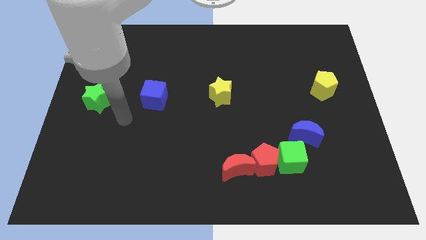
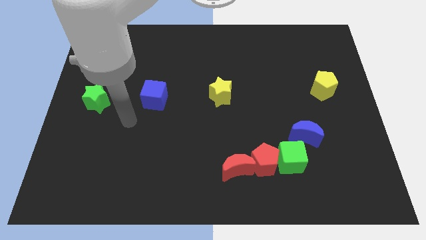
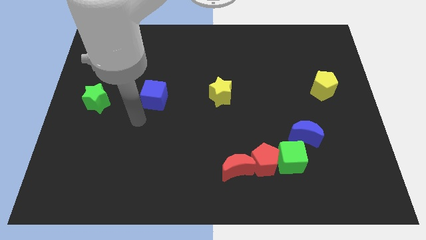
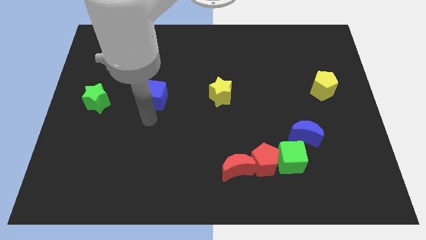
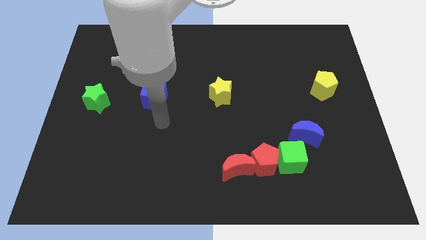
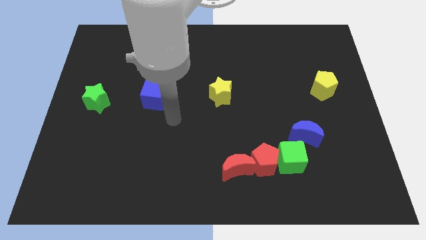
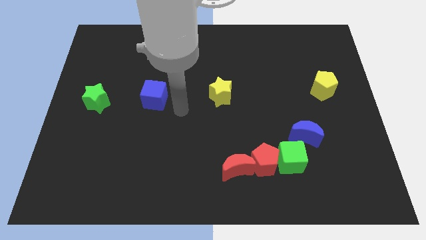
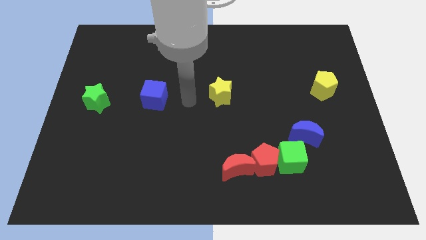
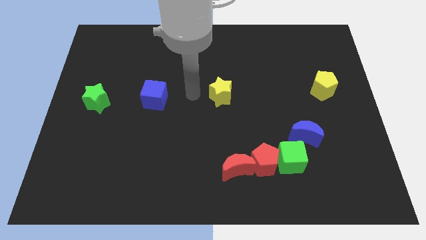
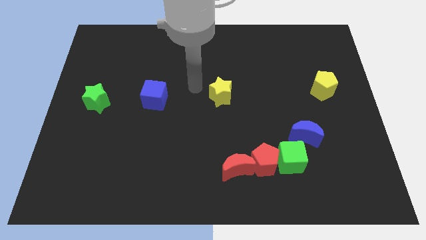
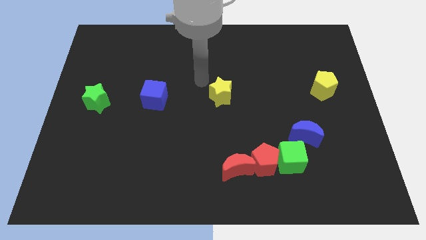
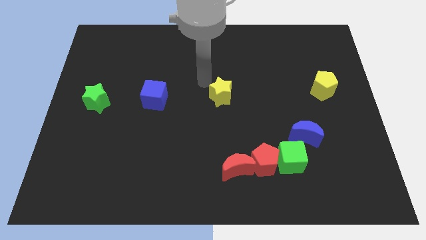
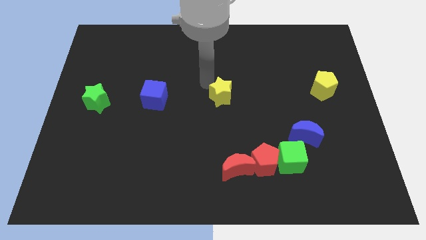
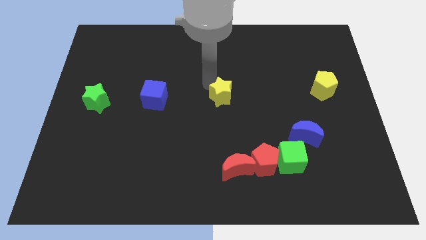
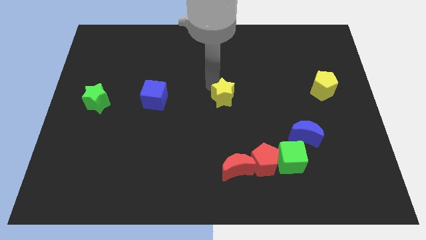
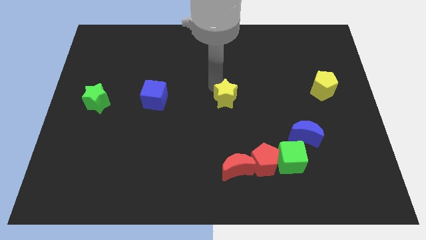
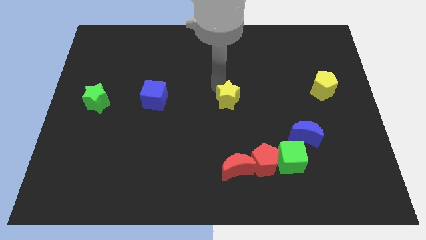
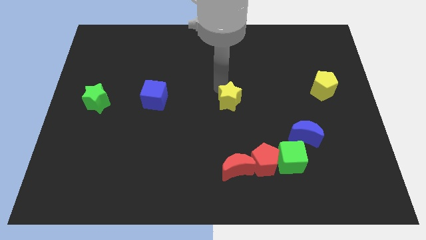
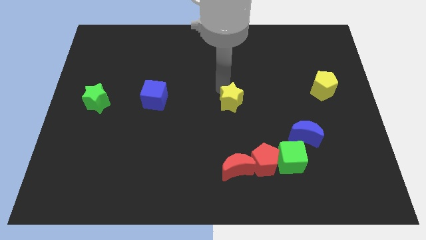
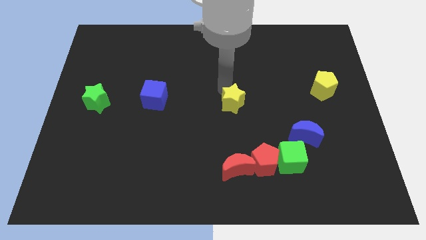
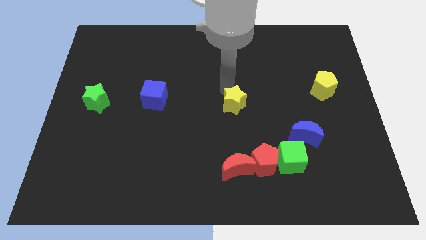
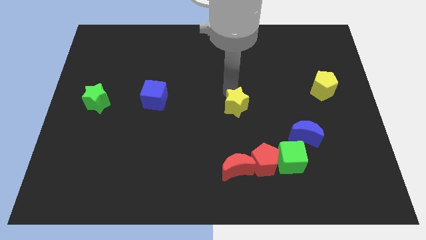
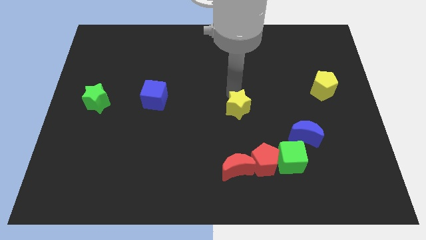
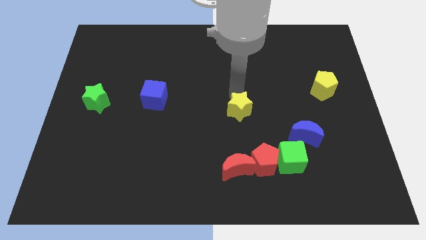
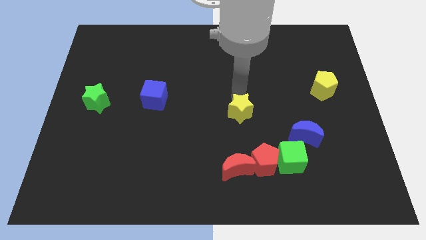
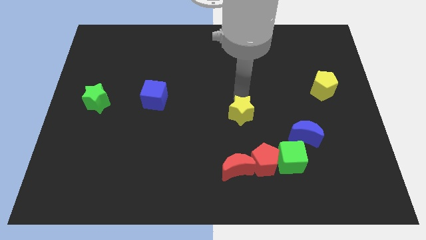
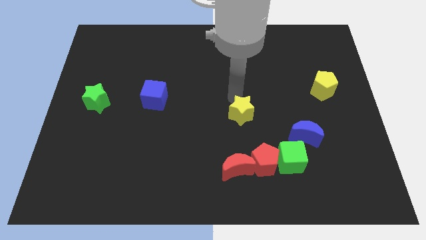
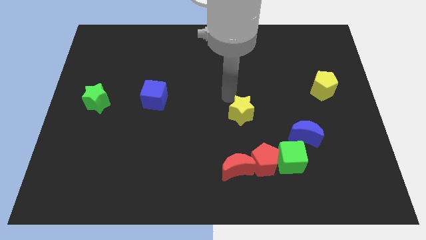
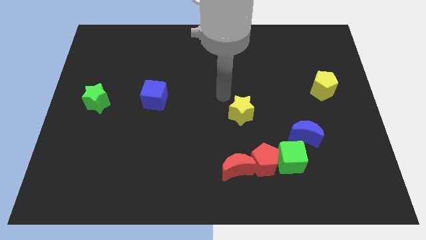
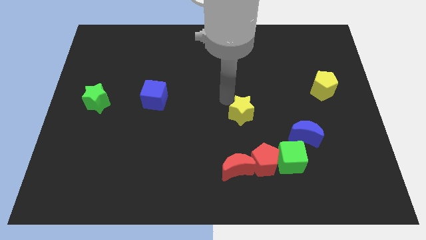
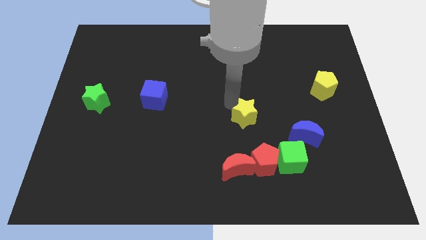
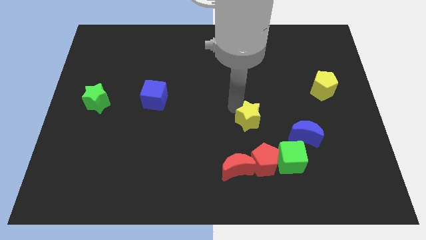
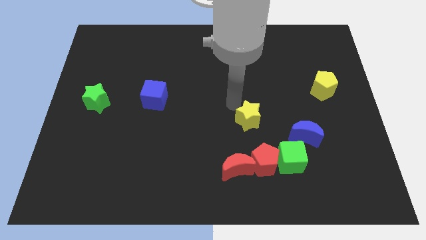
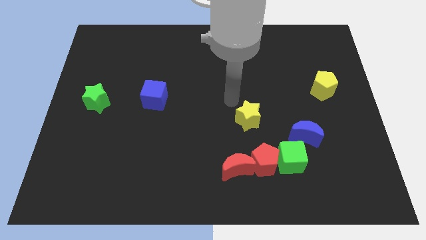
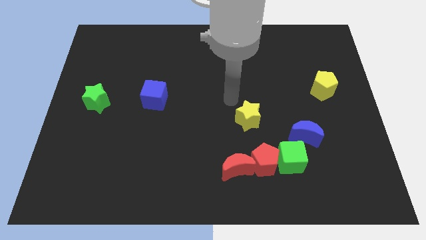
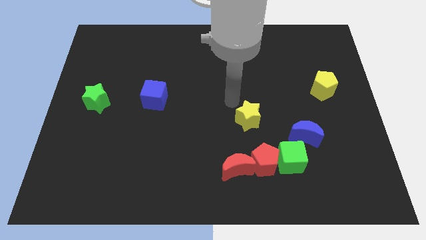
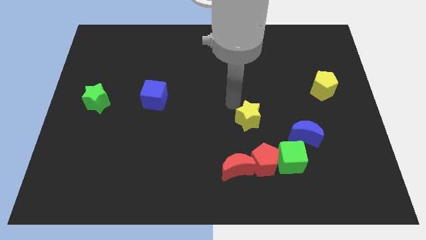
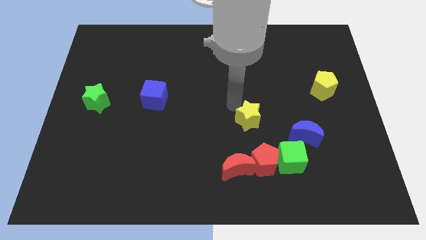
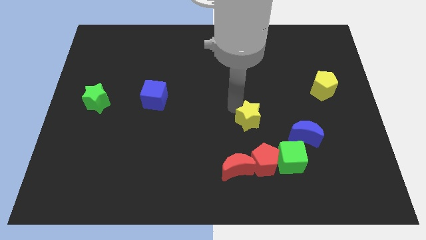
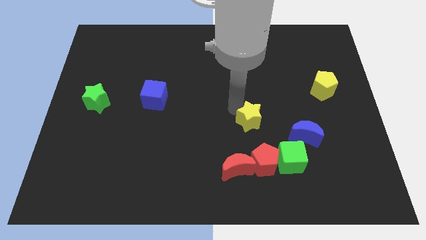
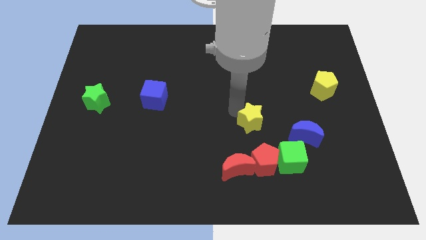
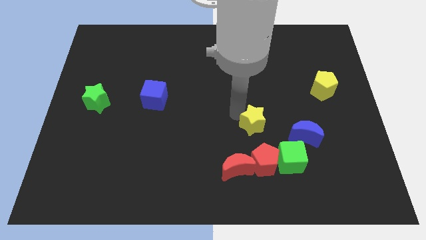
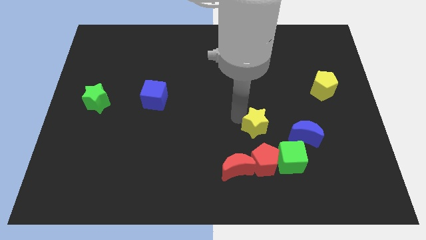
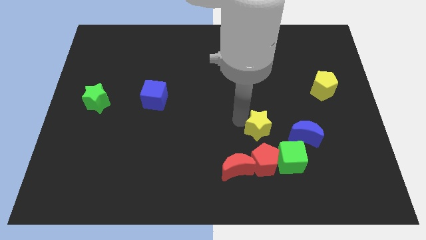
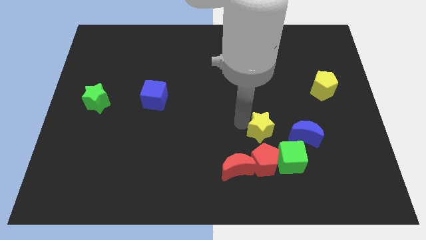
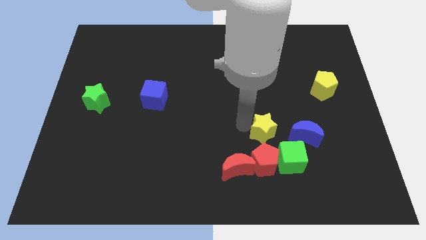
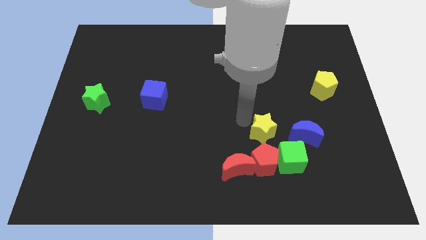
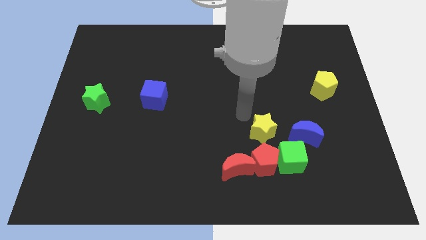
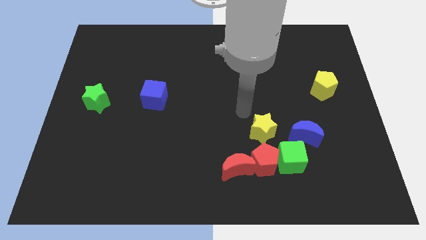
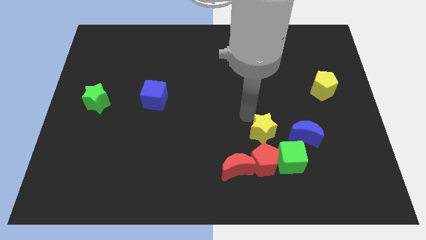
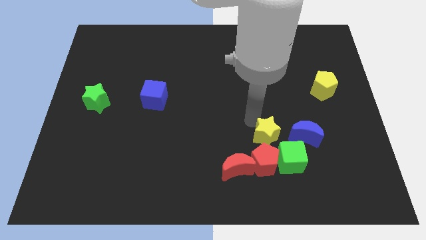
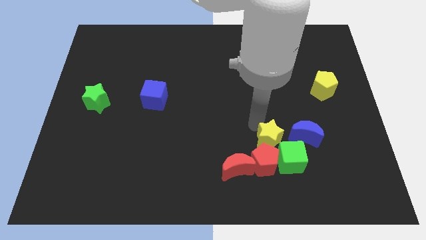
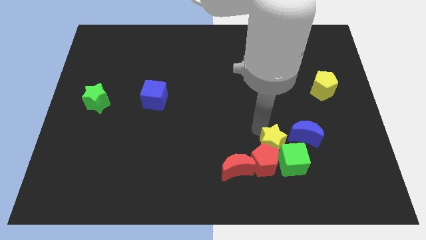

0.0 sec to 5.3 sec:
put the yellow star towards the green cube

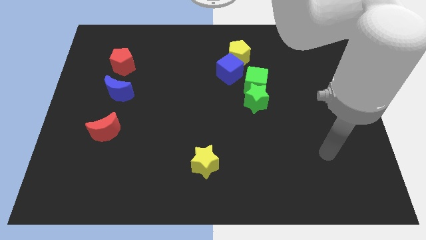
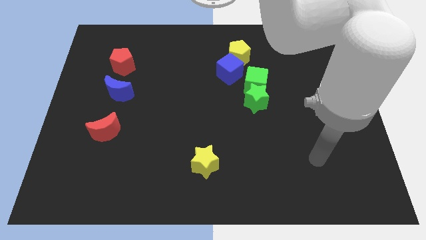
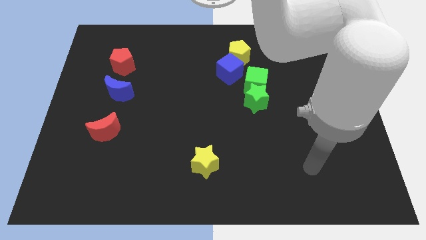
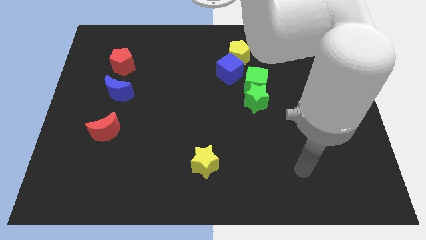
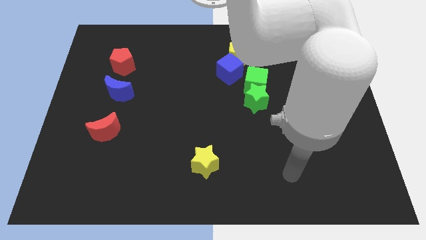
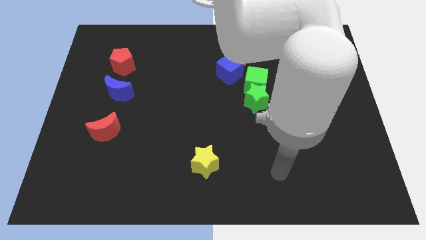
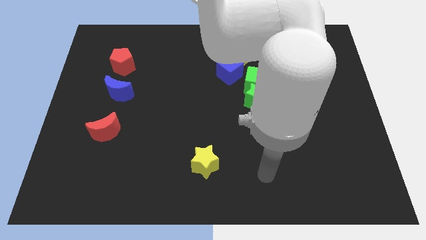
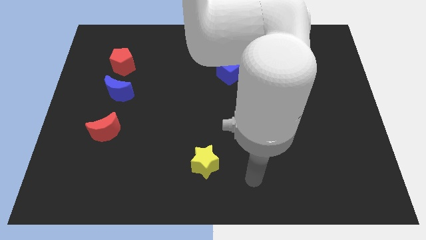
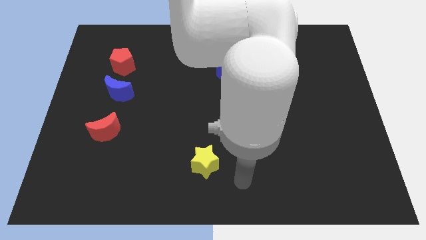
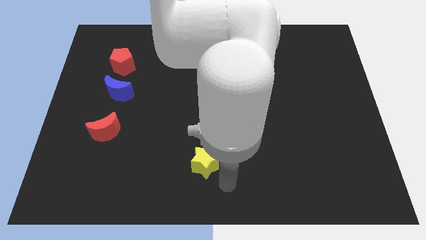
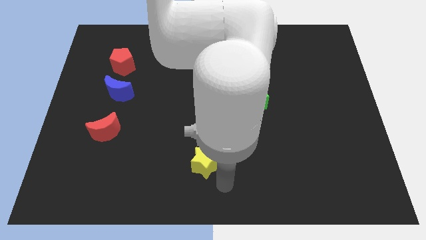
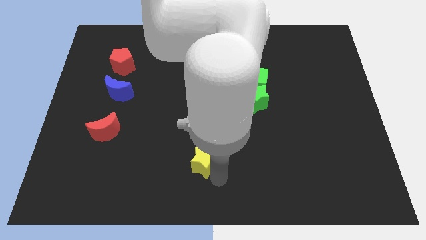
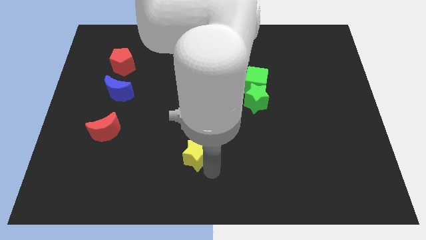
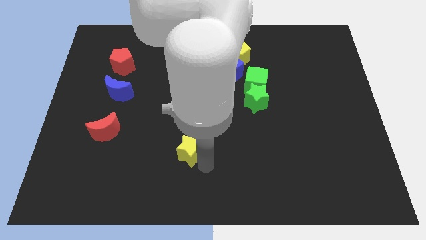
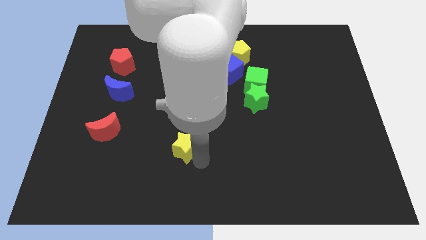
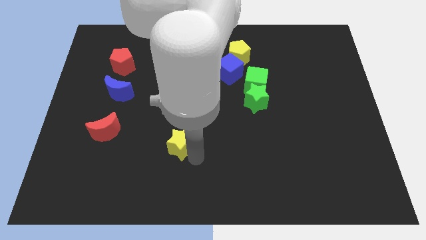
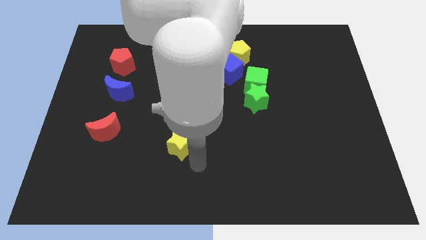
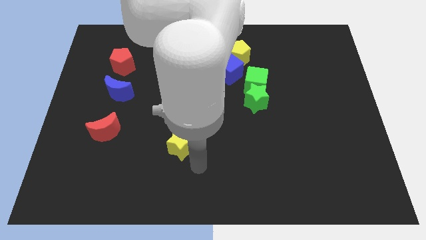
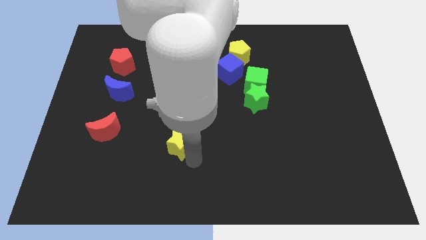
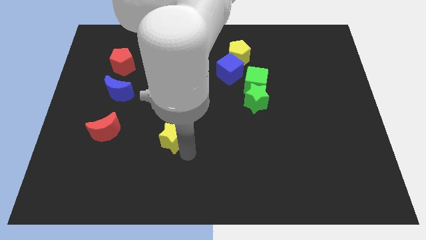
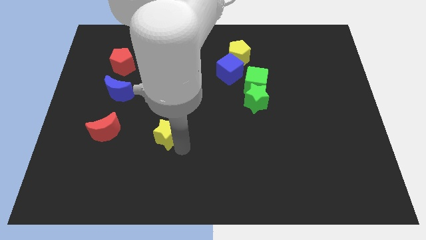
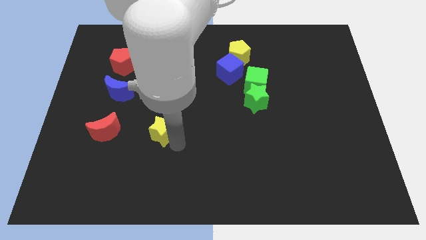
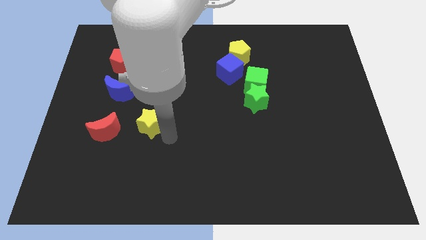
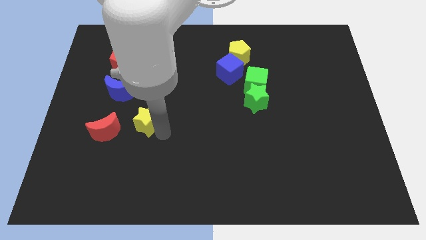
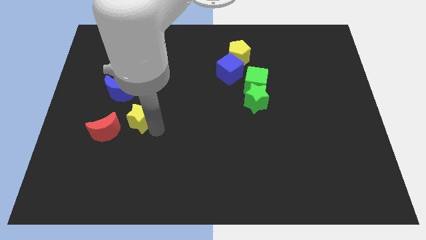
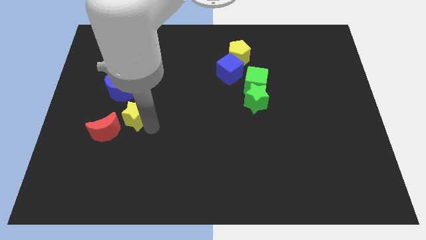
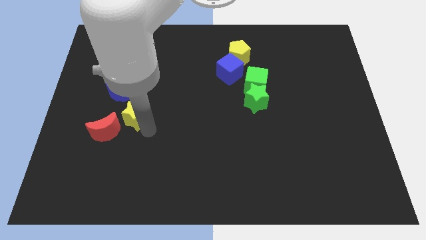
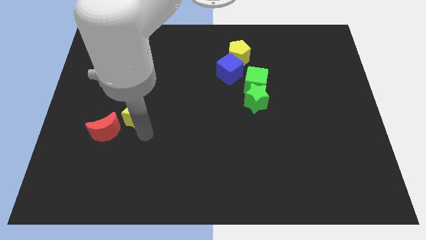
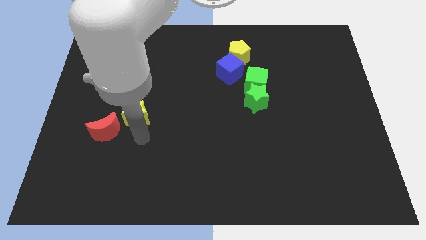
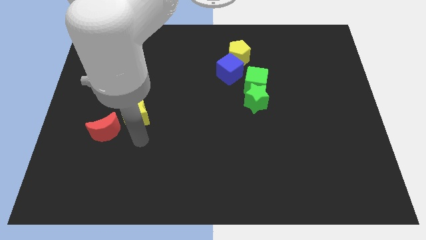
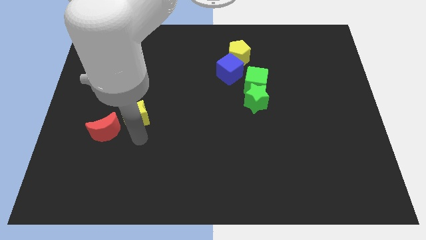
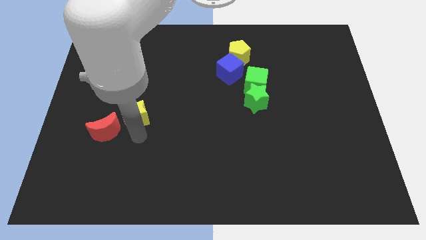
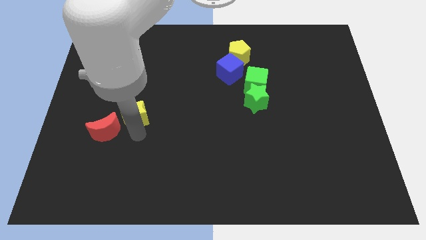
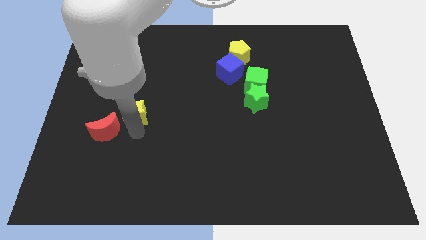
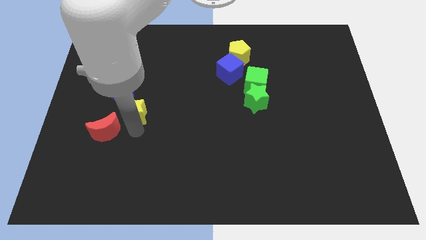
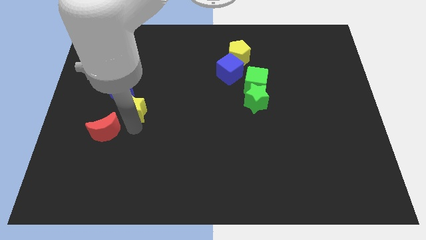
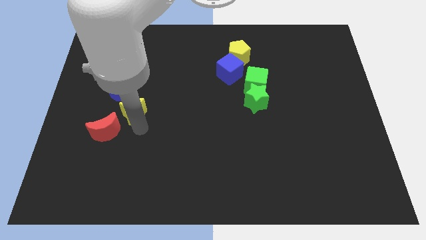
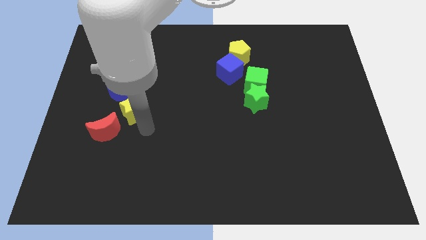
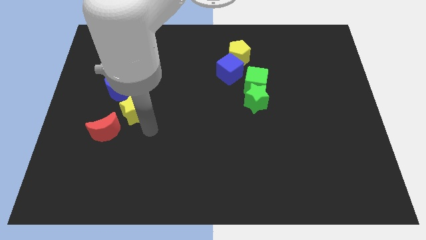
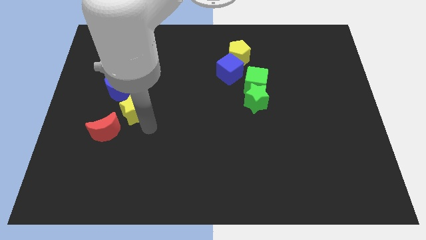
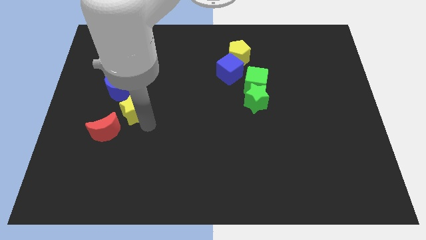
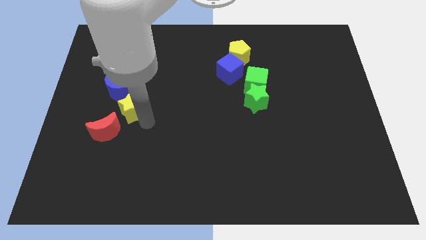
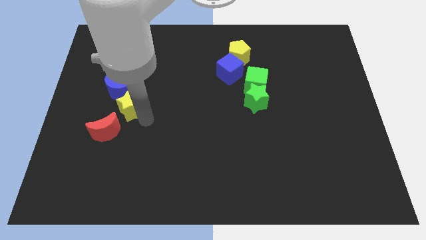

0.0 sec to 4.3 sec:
move the yellow star close to the blue moon
